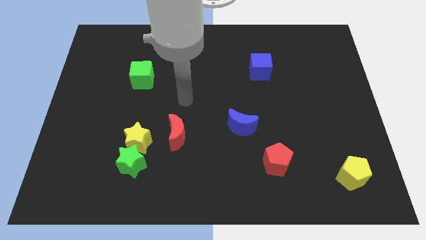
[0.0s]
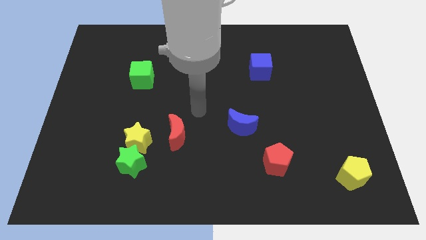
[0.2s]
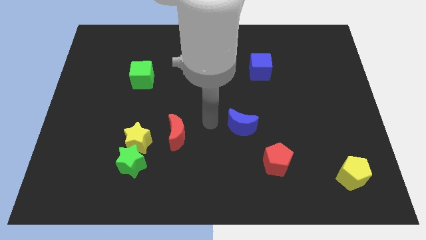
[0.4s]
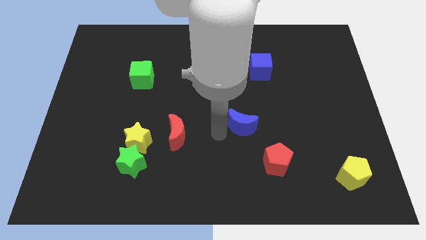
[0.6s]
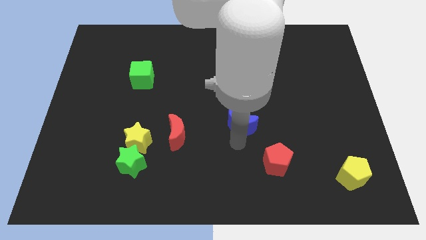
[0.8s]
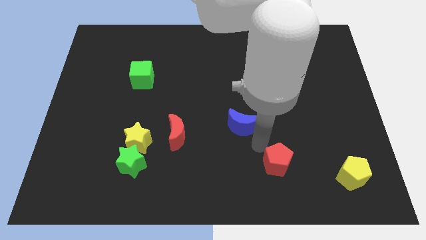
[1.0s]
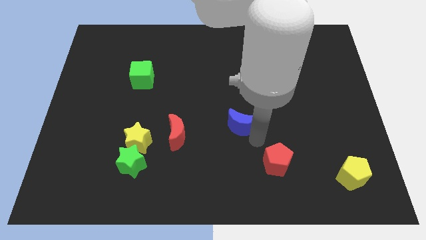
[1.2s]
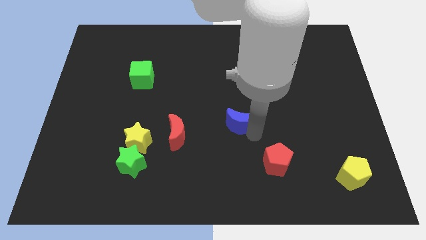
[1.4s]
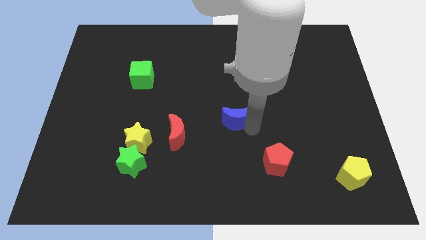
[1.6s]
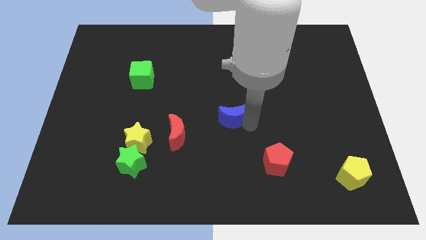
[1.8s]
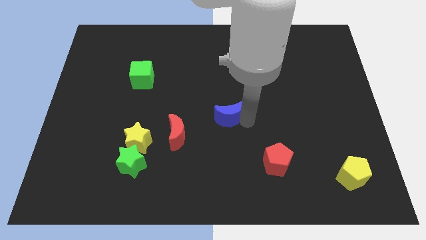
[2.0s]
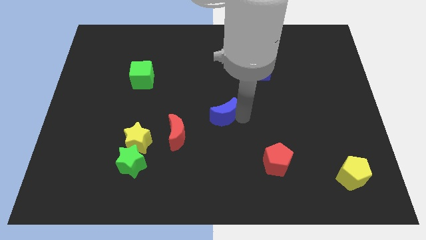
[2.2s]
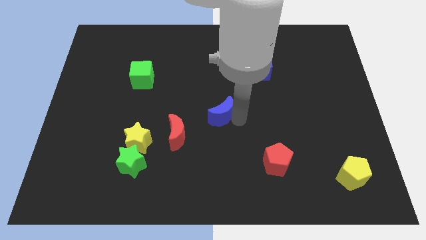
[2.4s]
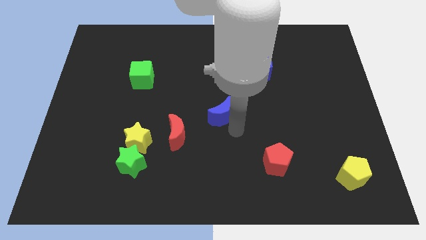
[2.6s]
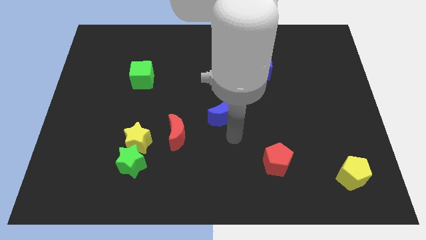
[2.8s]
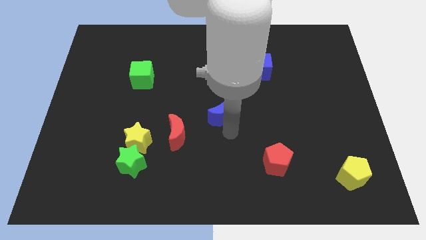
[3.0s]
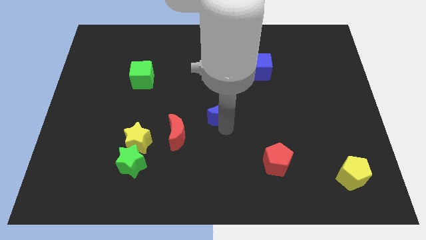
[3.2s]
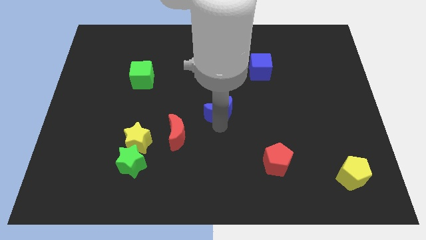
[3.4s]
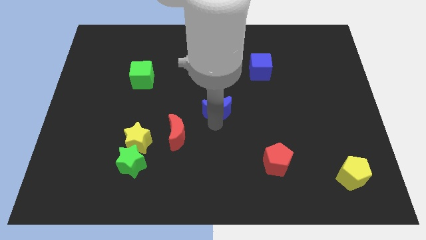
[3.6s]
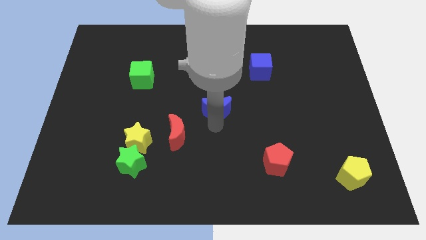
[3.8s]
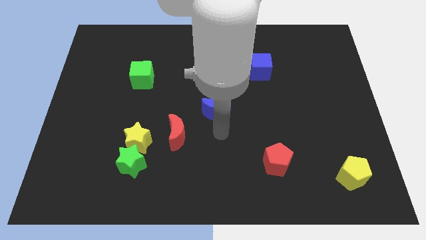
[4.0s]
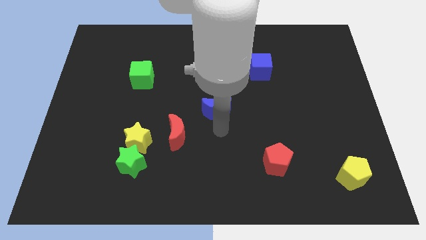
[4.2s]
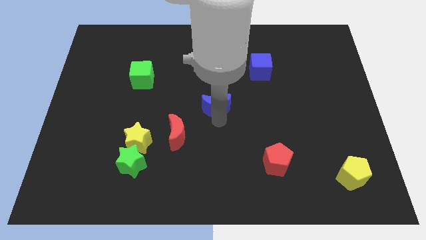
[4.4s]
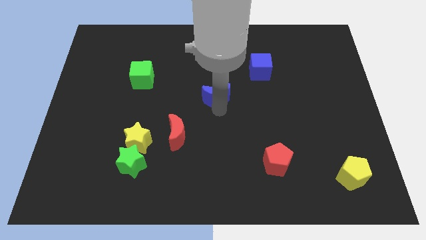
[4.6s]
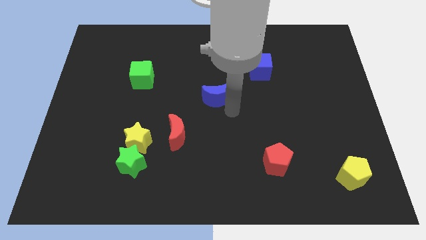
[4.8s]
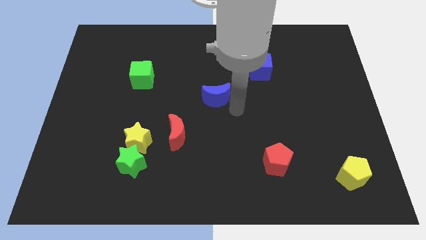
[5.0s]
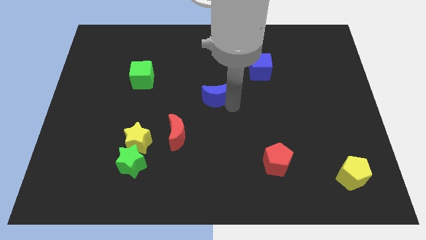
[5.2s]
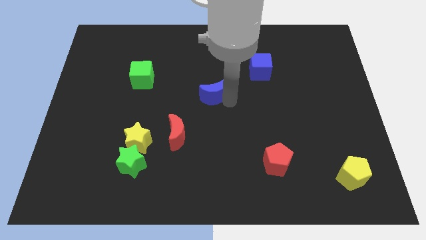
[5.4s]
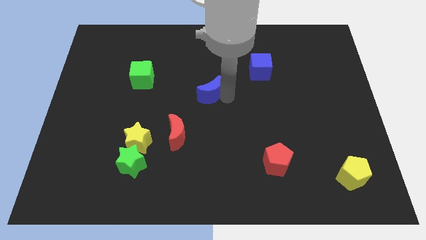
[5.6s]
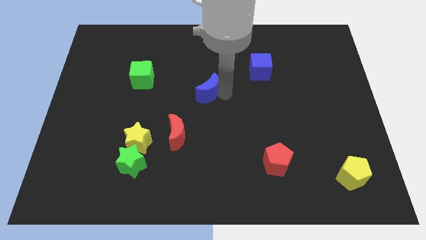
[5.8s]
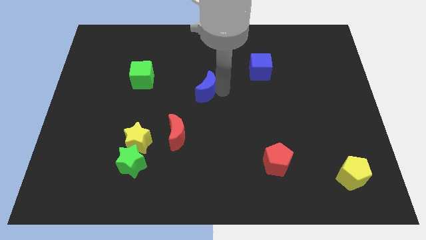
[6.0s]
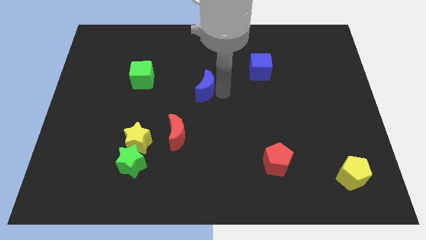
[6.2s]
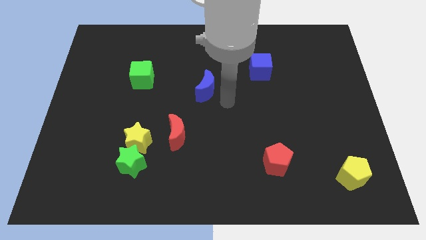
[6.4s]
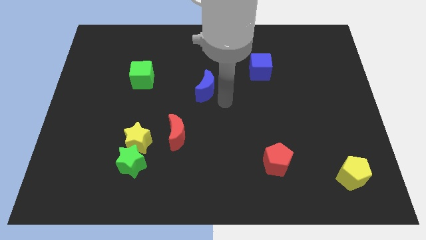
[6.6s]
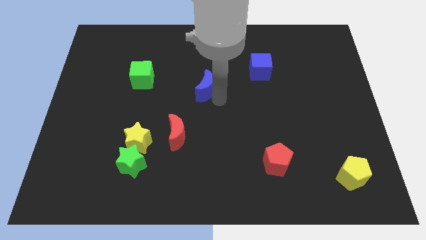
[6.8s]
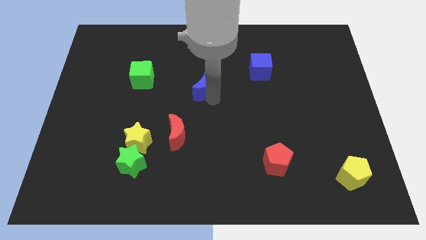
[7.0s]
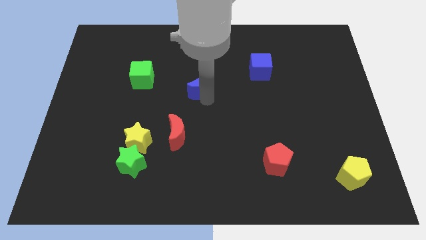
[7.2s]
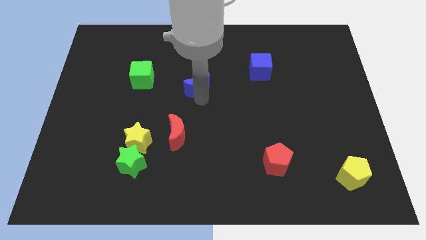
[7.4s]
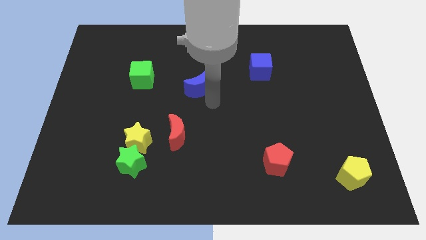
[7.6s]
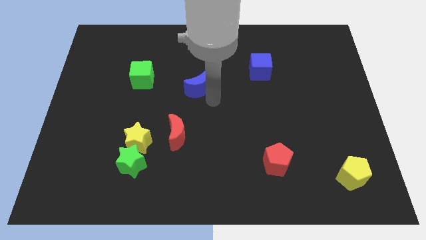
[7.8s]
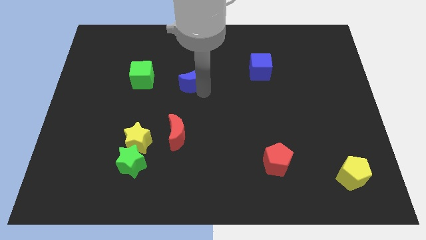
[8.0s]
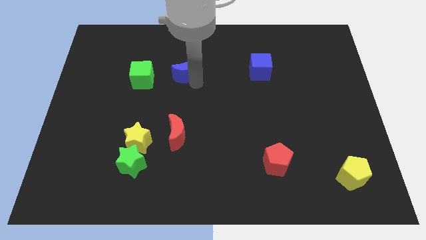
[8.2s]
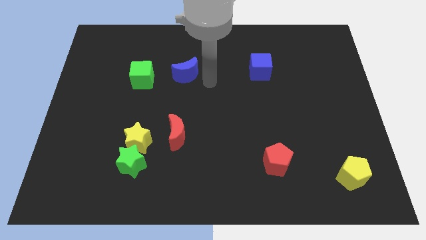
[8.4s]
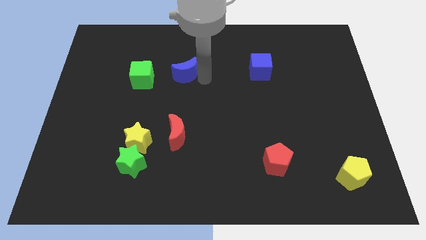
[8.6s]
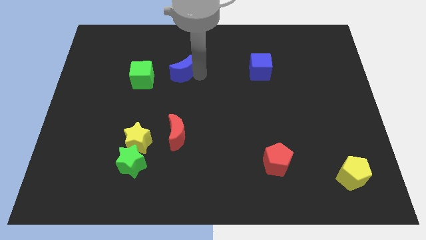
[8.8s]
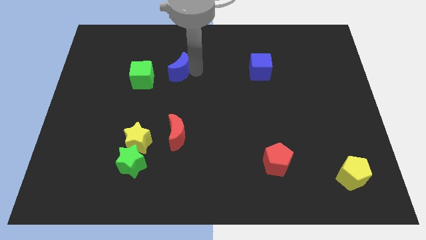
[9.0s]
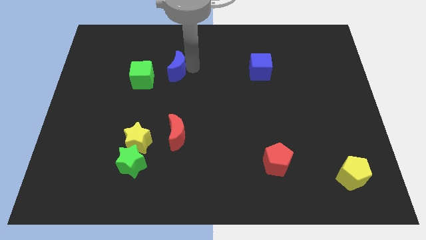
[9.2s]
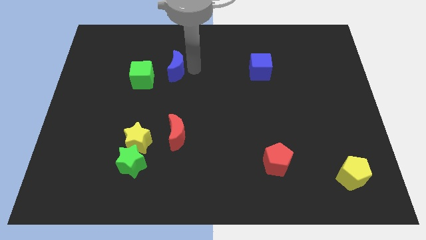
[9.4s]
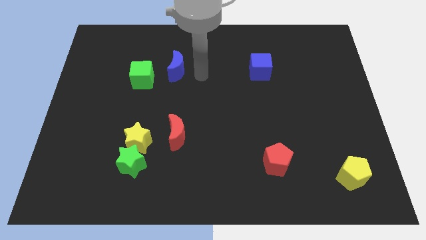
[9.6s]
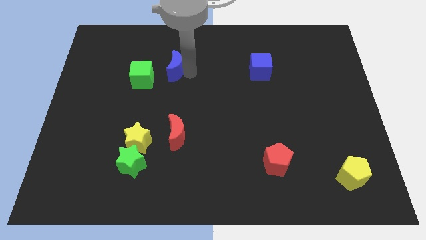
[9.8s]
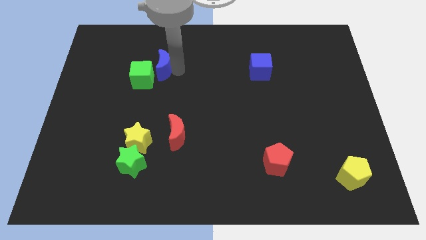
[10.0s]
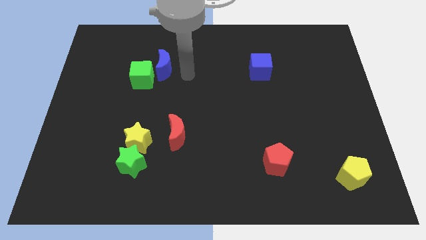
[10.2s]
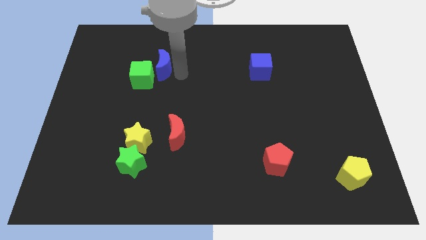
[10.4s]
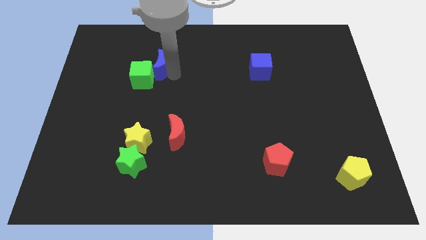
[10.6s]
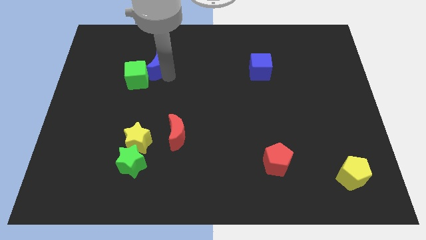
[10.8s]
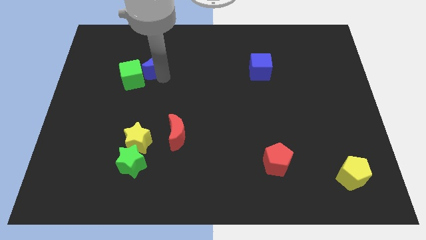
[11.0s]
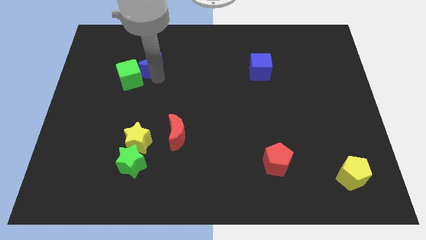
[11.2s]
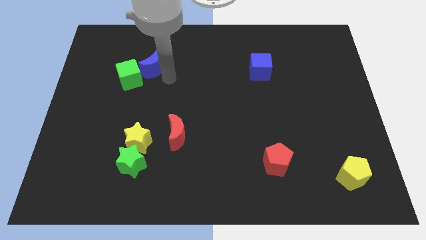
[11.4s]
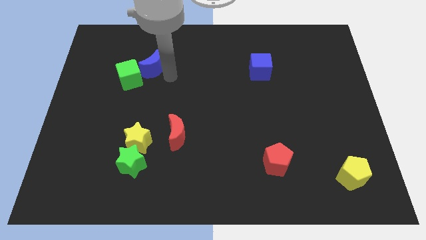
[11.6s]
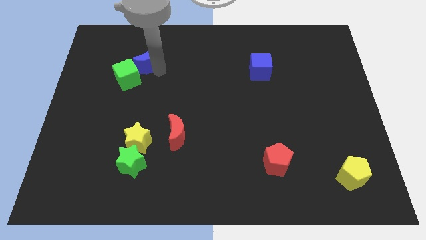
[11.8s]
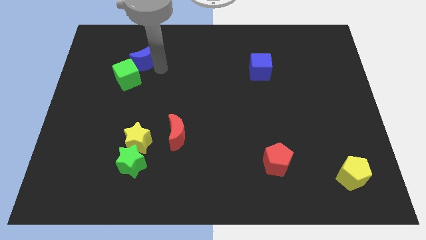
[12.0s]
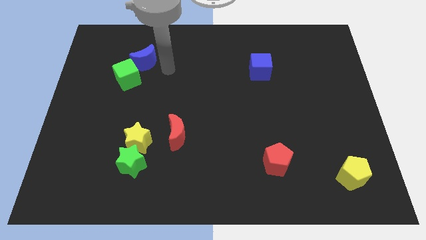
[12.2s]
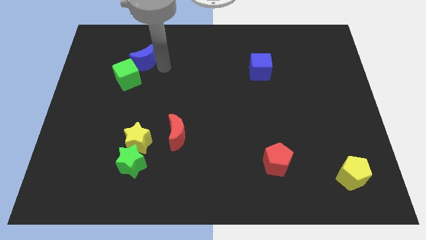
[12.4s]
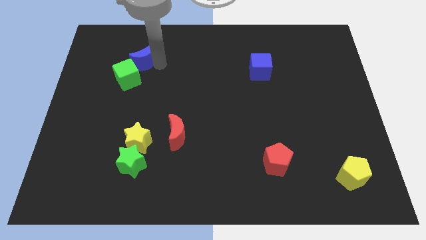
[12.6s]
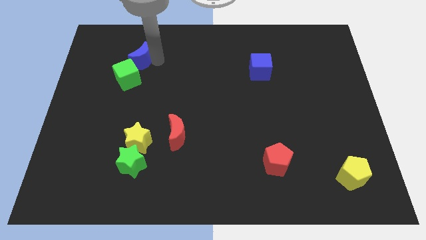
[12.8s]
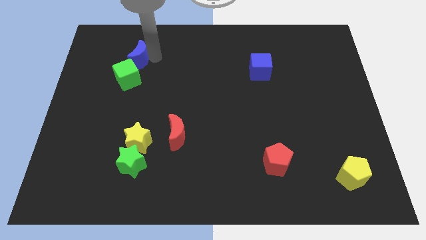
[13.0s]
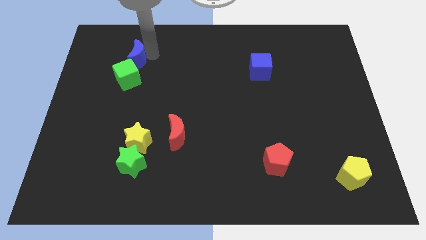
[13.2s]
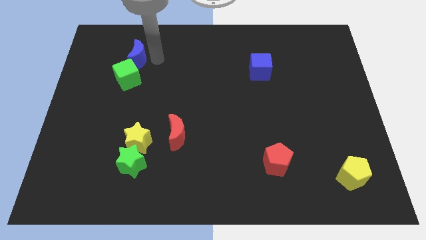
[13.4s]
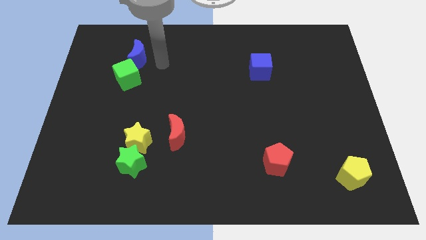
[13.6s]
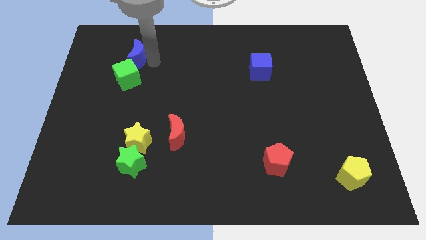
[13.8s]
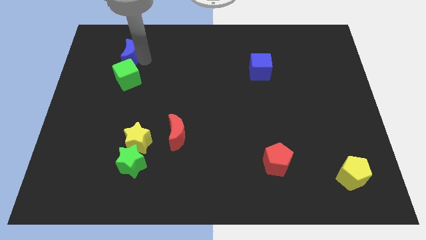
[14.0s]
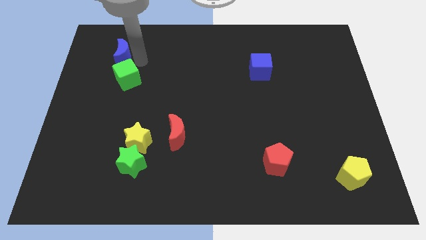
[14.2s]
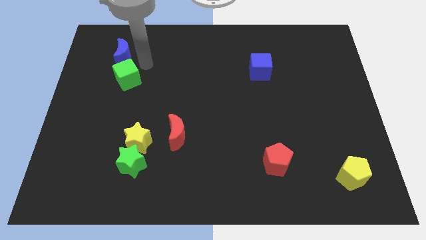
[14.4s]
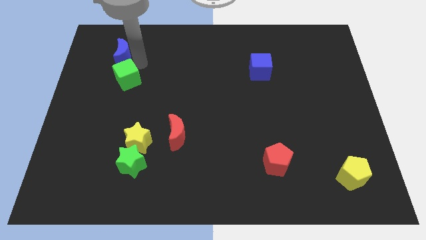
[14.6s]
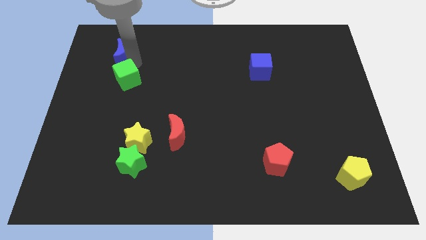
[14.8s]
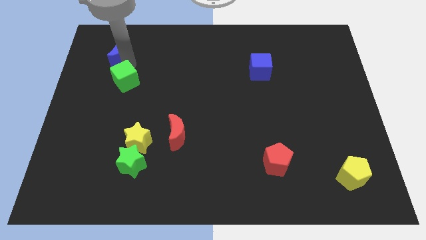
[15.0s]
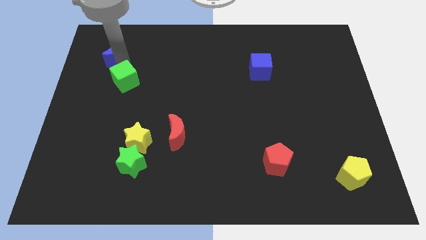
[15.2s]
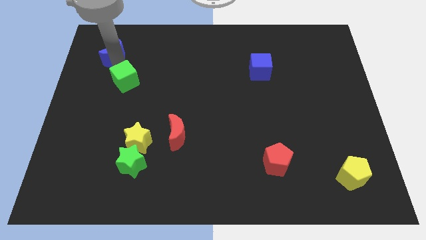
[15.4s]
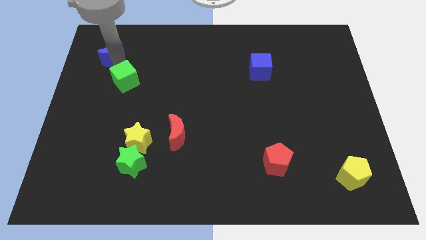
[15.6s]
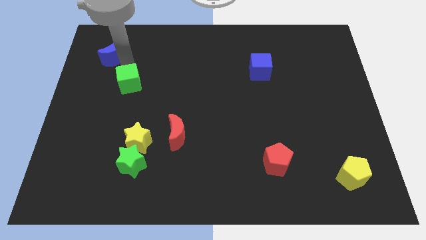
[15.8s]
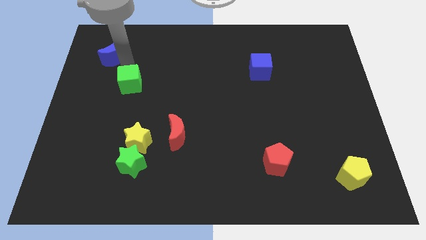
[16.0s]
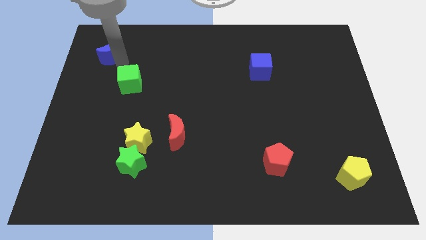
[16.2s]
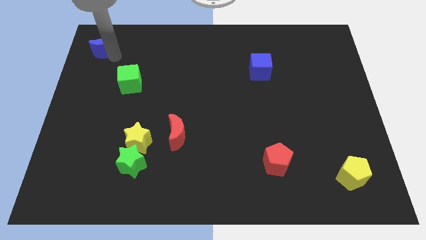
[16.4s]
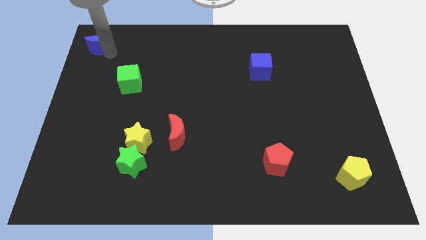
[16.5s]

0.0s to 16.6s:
put the blue moon to the top left corner
